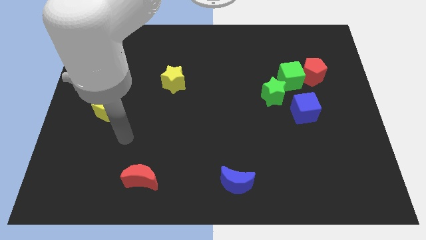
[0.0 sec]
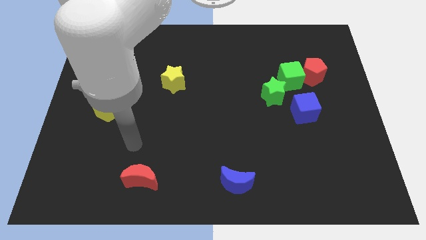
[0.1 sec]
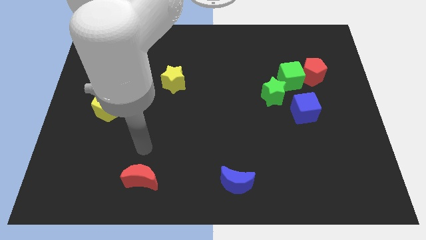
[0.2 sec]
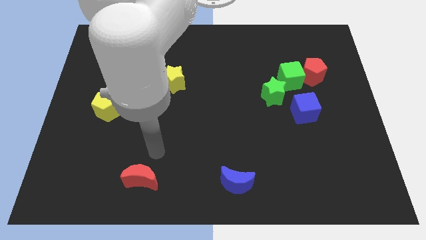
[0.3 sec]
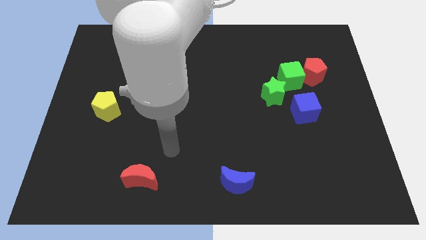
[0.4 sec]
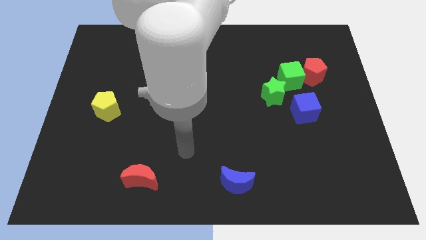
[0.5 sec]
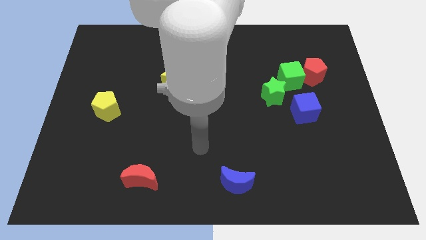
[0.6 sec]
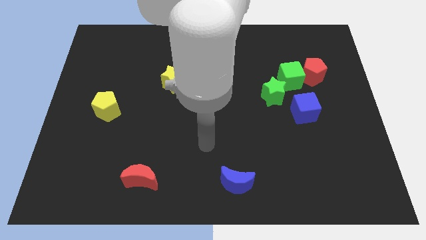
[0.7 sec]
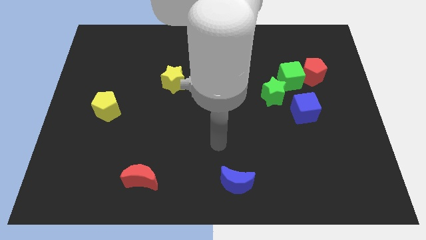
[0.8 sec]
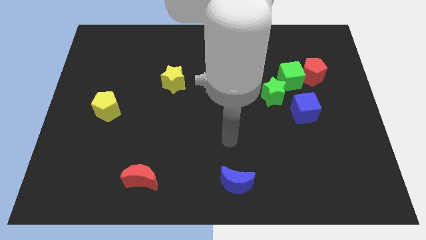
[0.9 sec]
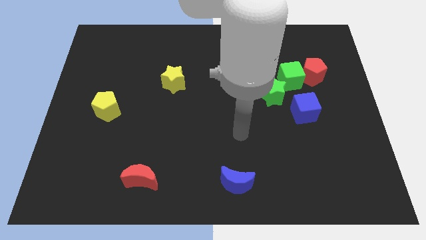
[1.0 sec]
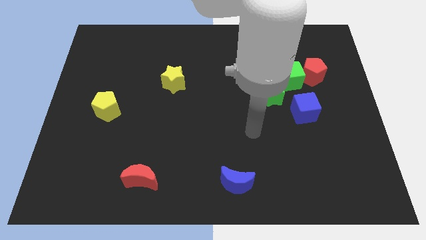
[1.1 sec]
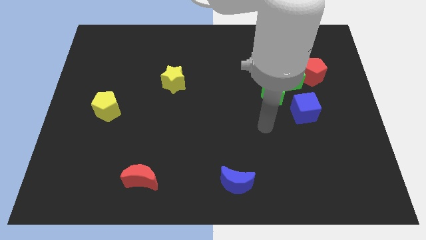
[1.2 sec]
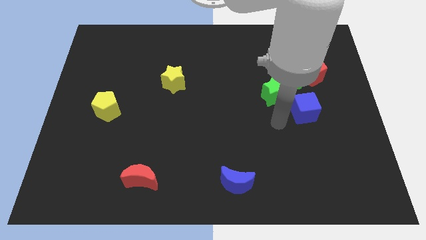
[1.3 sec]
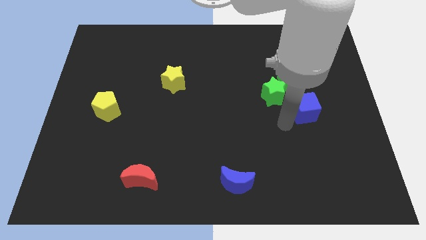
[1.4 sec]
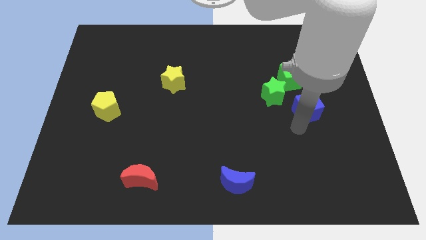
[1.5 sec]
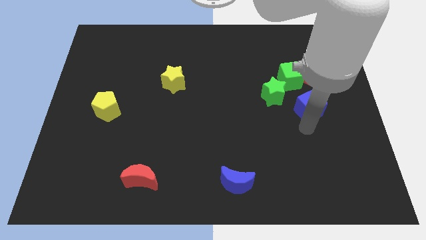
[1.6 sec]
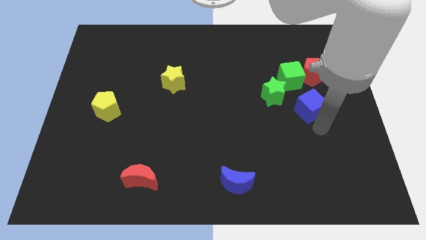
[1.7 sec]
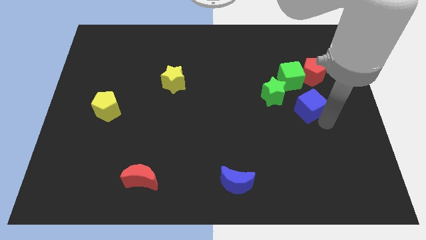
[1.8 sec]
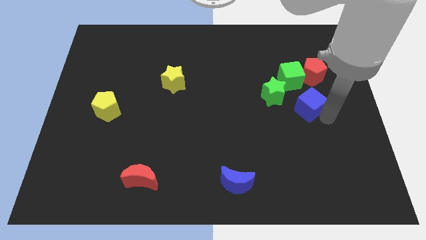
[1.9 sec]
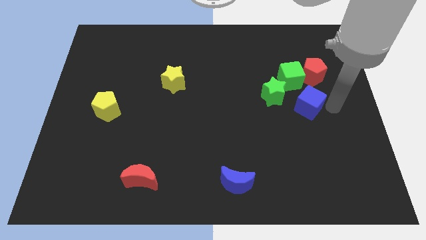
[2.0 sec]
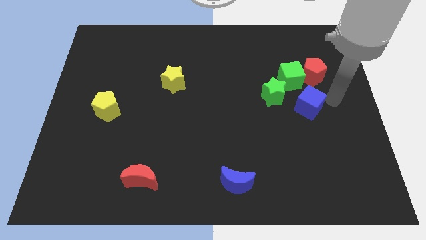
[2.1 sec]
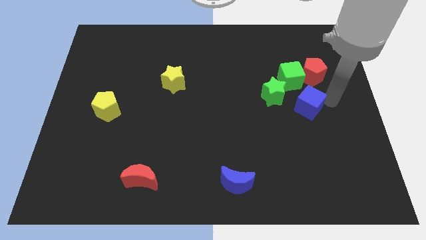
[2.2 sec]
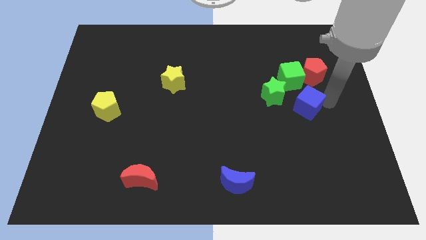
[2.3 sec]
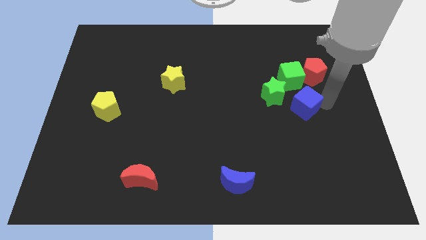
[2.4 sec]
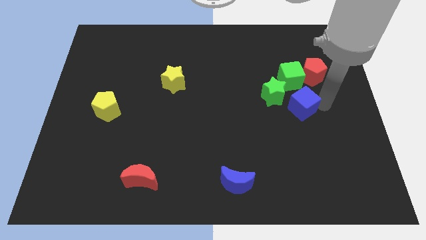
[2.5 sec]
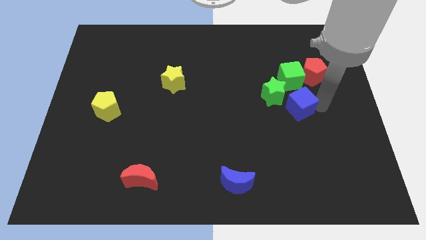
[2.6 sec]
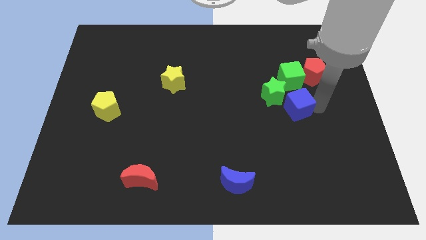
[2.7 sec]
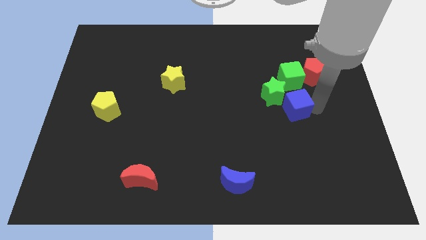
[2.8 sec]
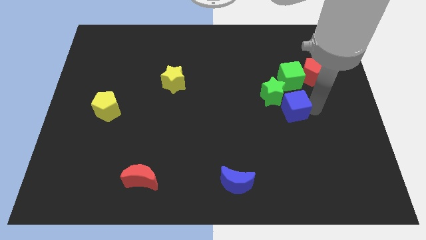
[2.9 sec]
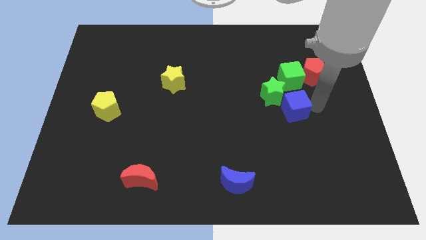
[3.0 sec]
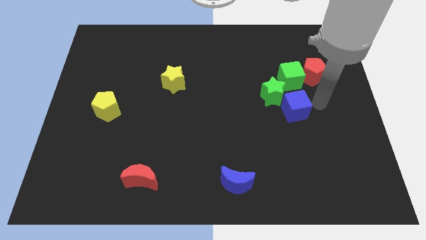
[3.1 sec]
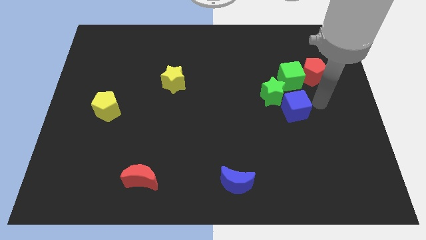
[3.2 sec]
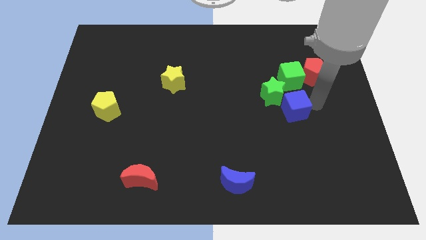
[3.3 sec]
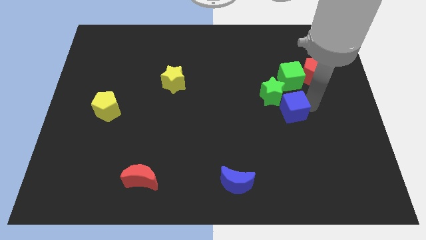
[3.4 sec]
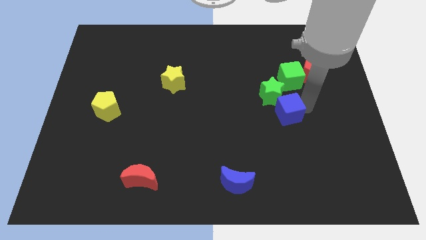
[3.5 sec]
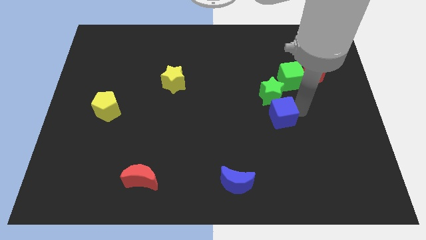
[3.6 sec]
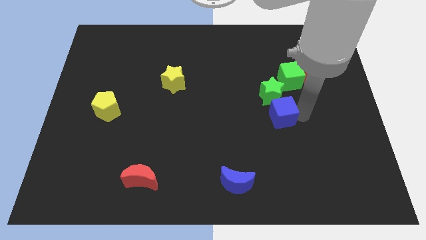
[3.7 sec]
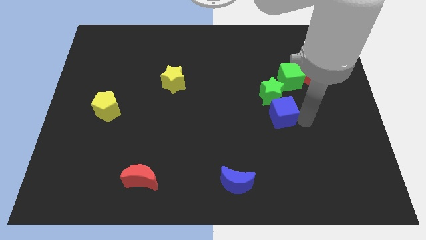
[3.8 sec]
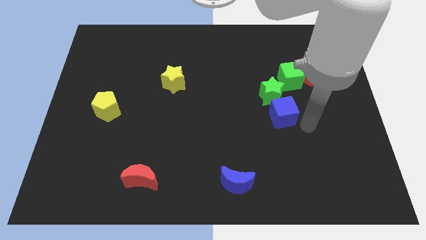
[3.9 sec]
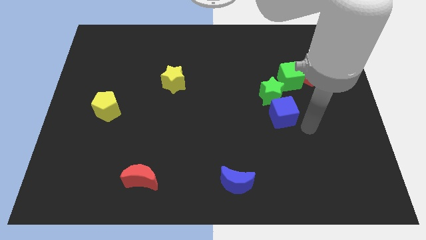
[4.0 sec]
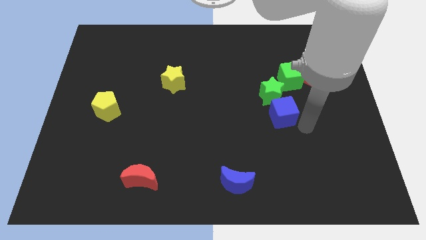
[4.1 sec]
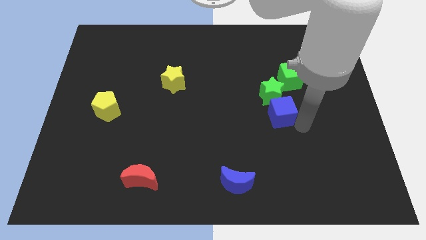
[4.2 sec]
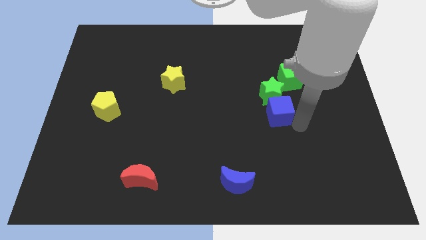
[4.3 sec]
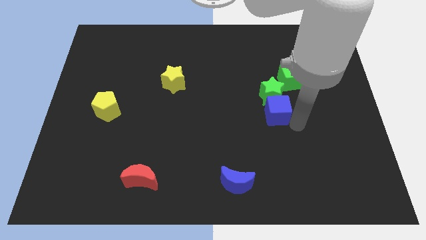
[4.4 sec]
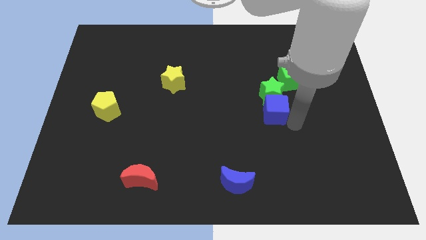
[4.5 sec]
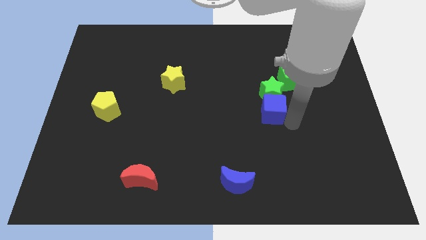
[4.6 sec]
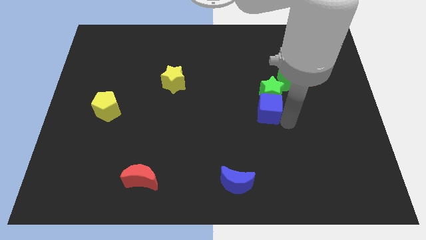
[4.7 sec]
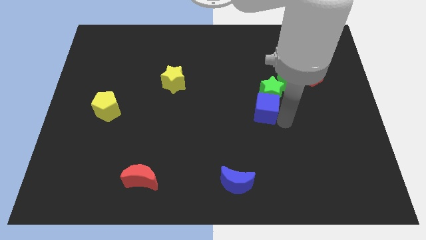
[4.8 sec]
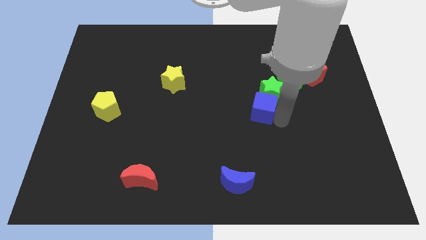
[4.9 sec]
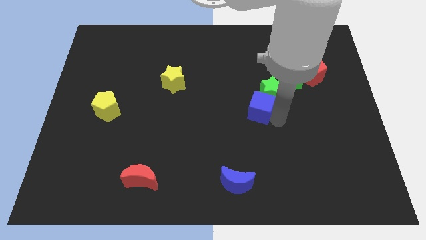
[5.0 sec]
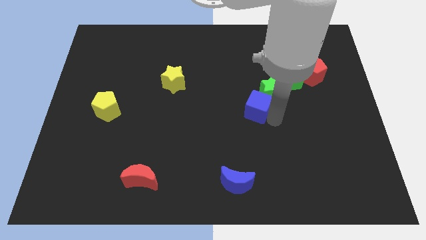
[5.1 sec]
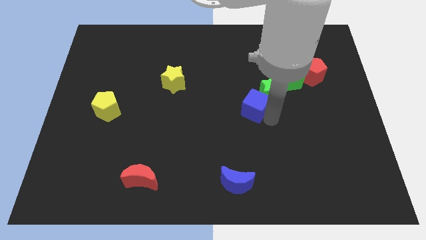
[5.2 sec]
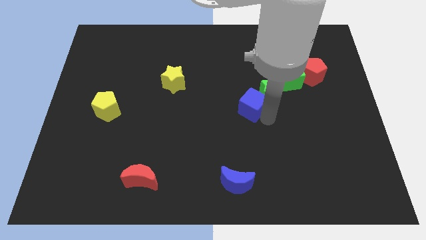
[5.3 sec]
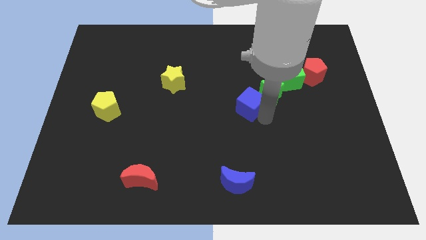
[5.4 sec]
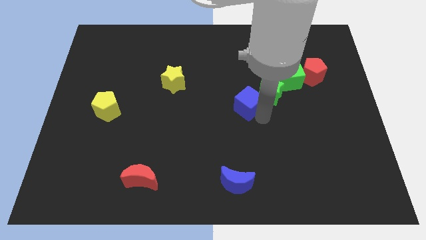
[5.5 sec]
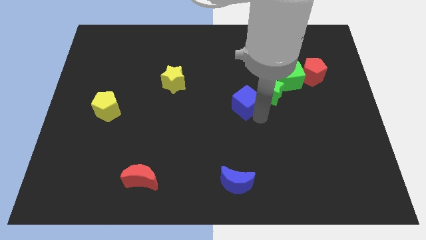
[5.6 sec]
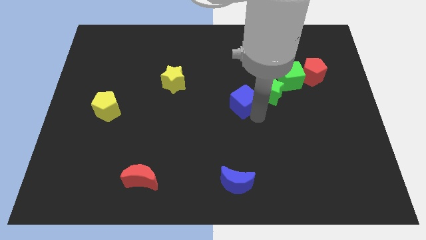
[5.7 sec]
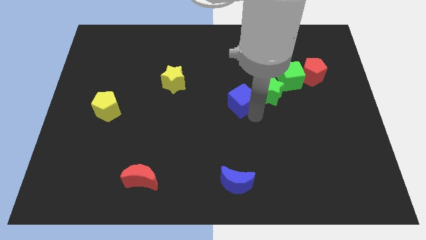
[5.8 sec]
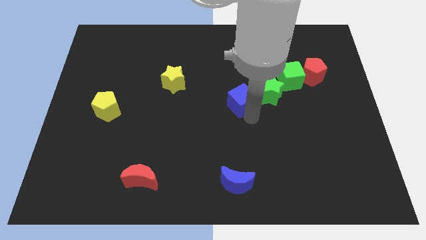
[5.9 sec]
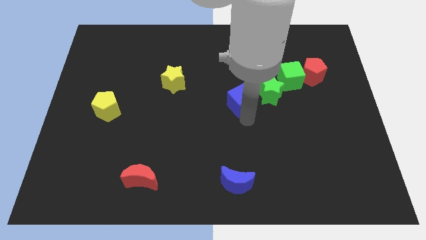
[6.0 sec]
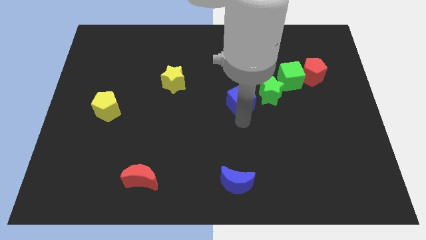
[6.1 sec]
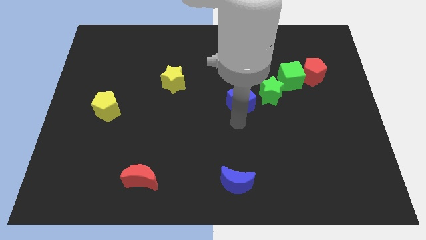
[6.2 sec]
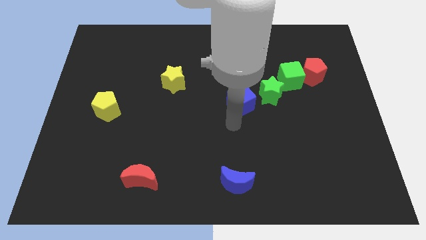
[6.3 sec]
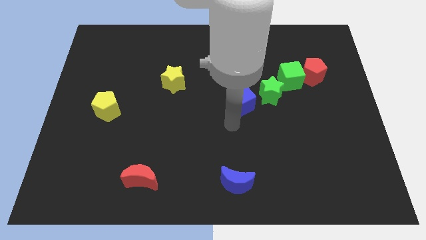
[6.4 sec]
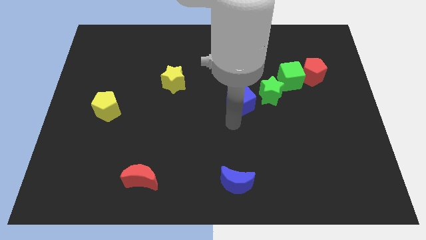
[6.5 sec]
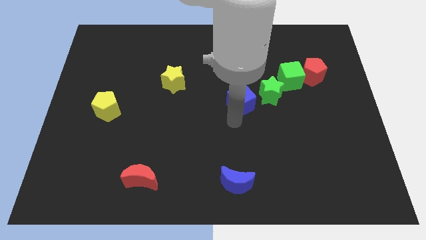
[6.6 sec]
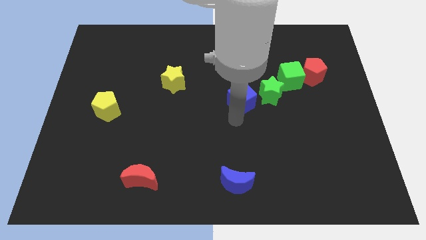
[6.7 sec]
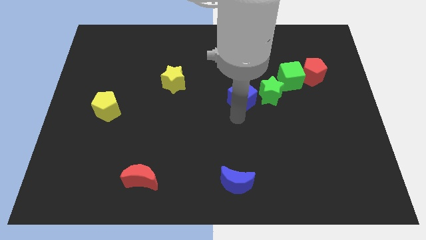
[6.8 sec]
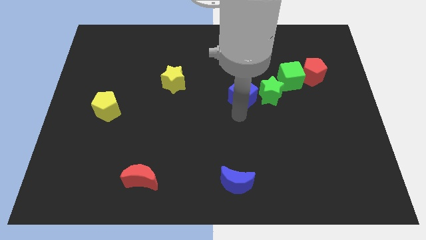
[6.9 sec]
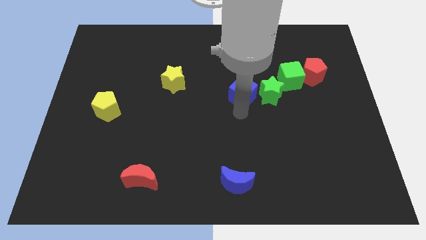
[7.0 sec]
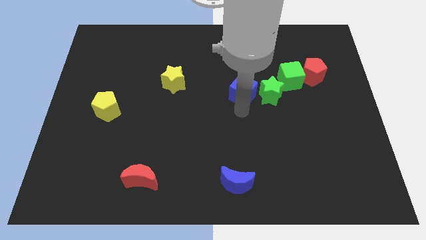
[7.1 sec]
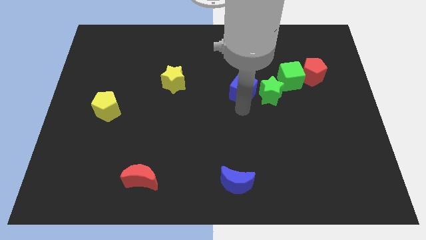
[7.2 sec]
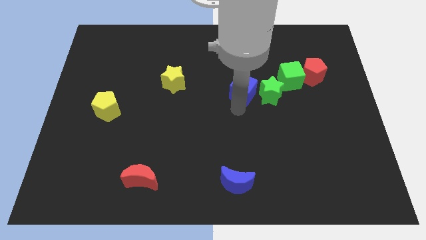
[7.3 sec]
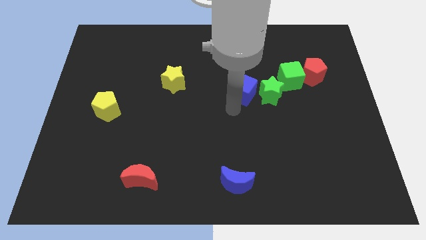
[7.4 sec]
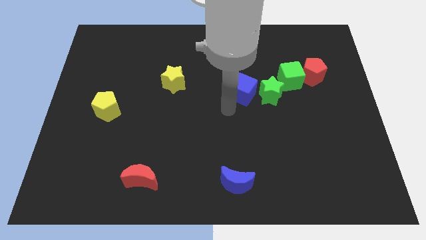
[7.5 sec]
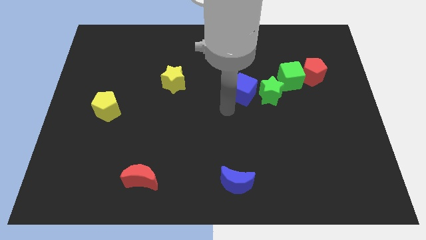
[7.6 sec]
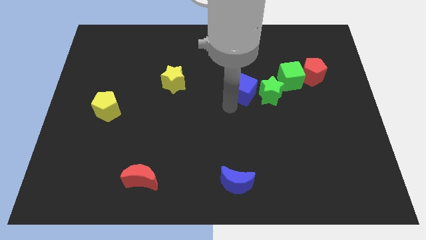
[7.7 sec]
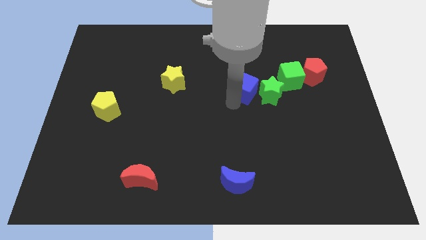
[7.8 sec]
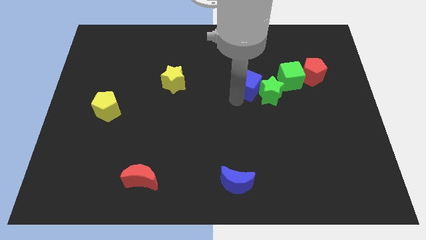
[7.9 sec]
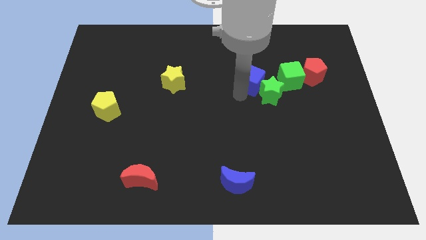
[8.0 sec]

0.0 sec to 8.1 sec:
slide the blue cube to the left of the red pentagon
